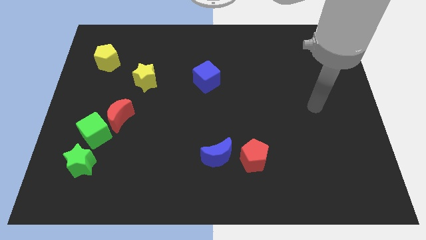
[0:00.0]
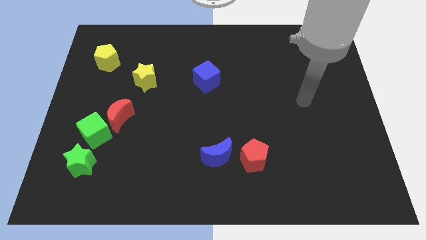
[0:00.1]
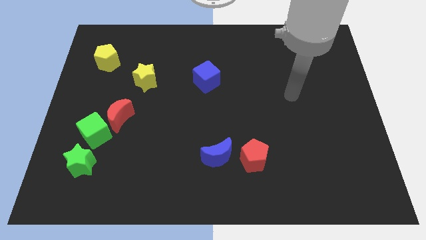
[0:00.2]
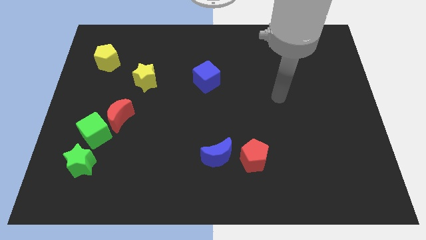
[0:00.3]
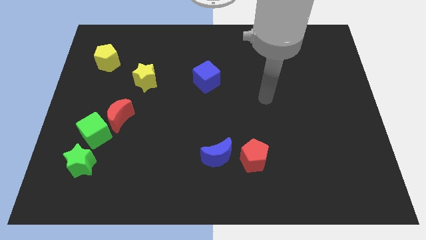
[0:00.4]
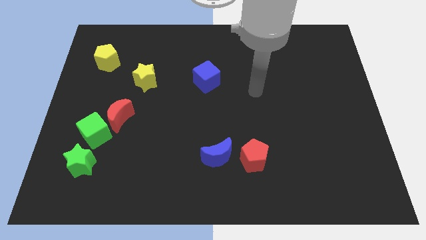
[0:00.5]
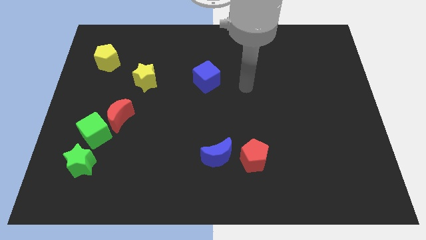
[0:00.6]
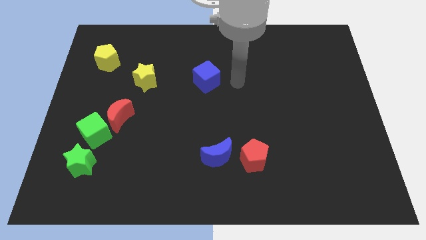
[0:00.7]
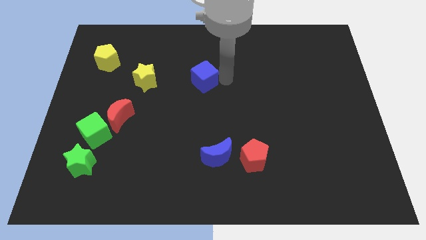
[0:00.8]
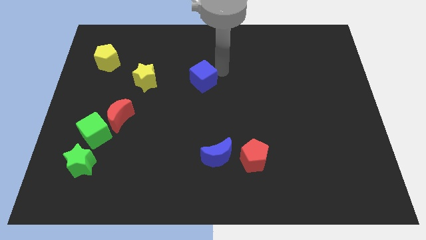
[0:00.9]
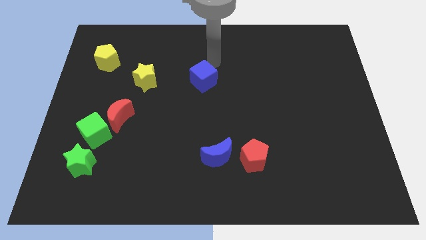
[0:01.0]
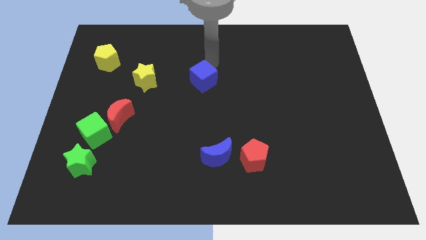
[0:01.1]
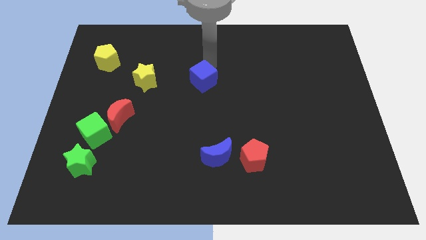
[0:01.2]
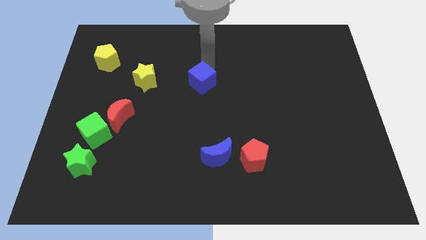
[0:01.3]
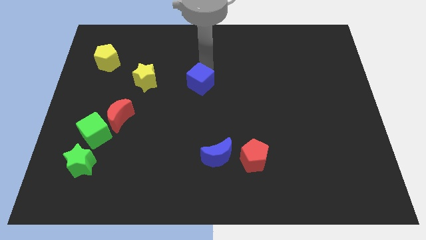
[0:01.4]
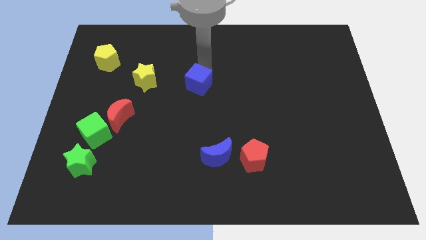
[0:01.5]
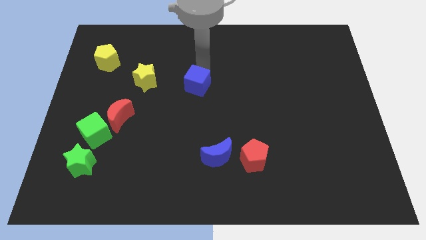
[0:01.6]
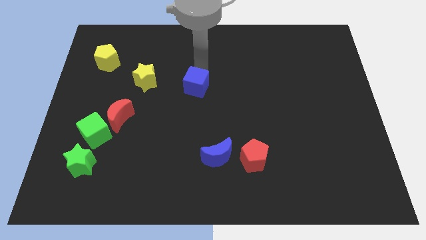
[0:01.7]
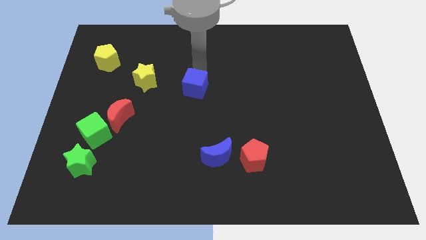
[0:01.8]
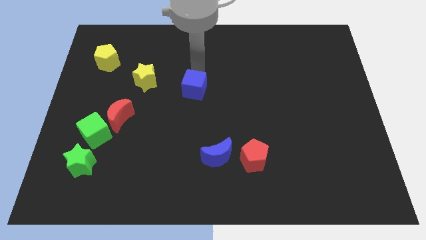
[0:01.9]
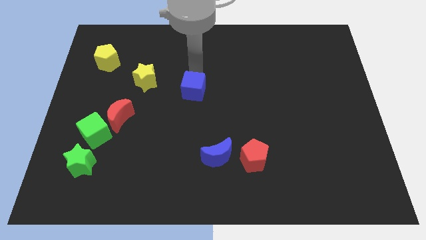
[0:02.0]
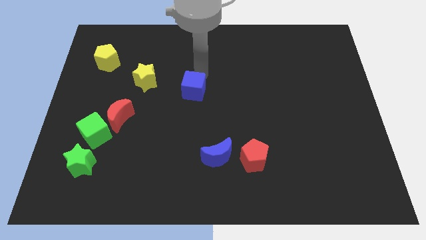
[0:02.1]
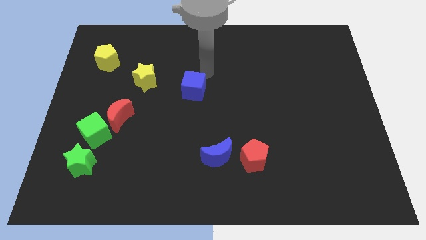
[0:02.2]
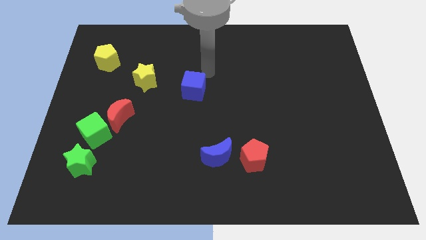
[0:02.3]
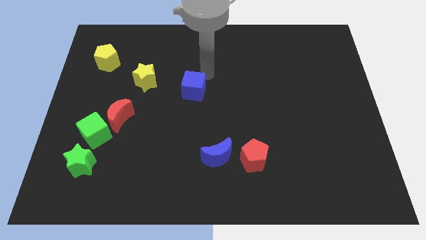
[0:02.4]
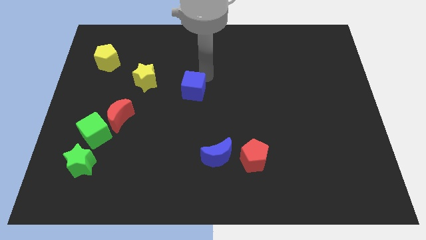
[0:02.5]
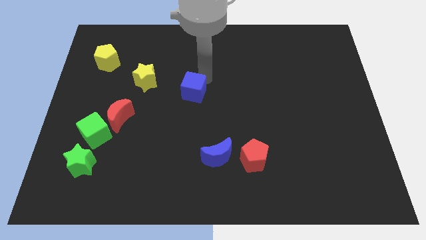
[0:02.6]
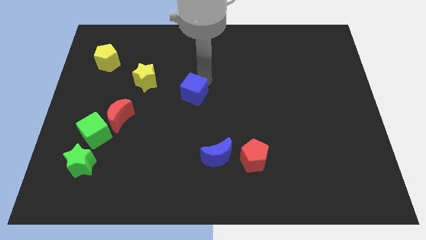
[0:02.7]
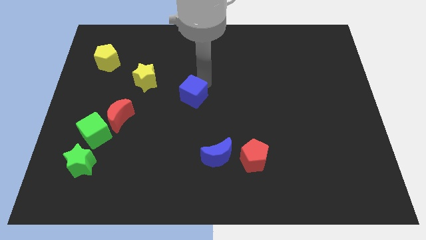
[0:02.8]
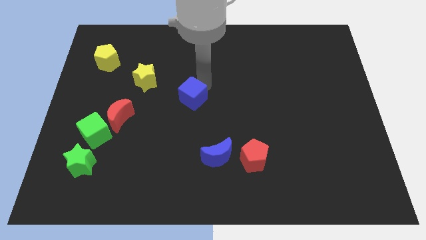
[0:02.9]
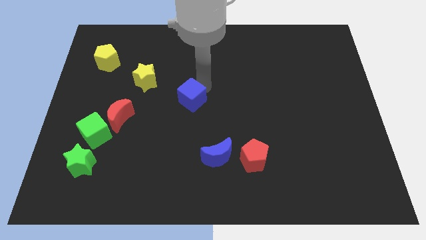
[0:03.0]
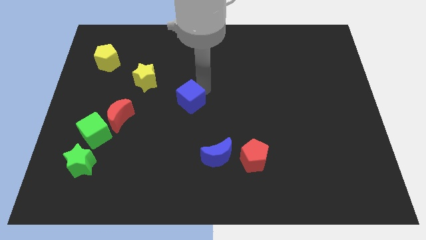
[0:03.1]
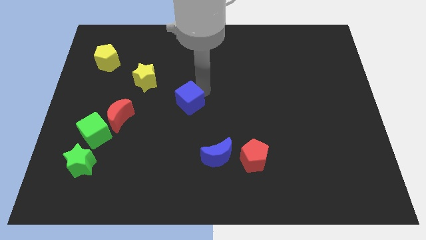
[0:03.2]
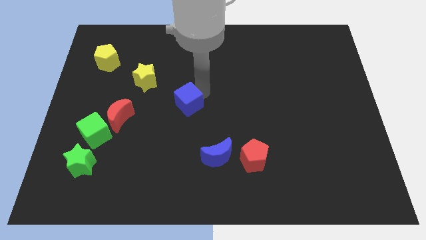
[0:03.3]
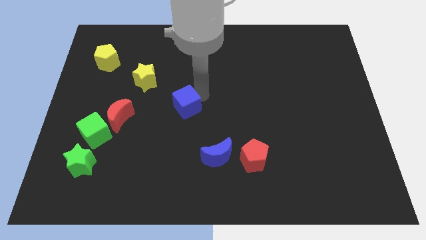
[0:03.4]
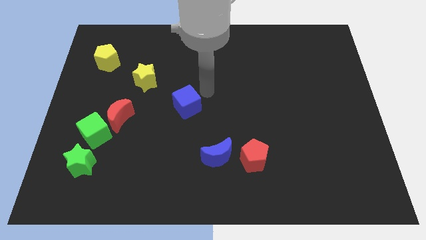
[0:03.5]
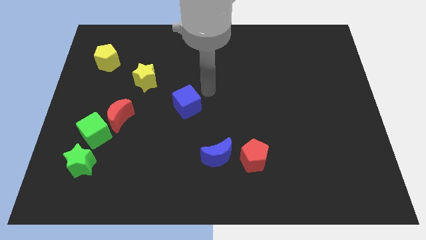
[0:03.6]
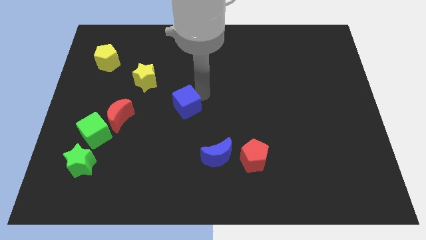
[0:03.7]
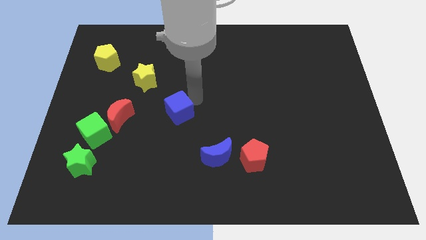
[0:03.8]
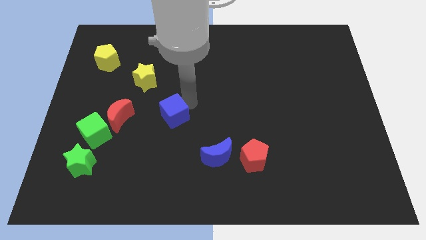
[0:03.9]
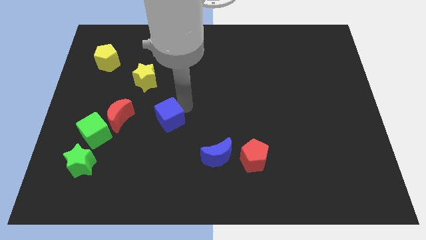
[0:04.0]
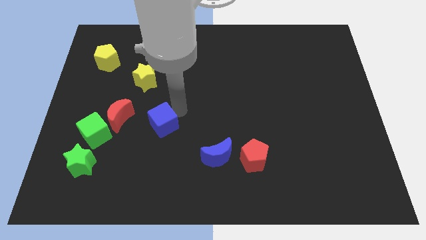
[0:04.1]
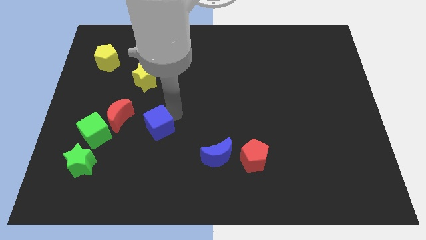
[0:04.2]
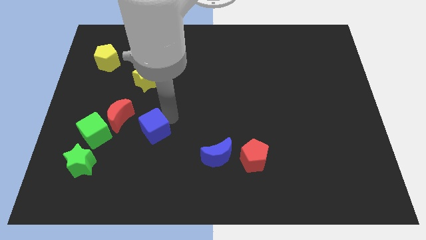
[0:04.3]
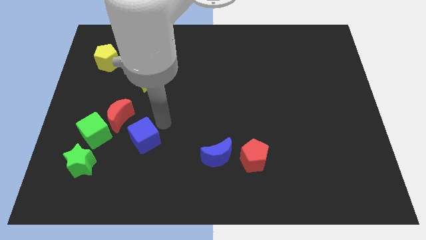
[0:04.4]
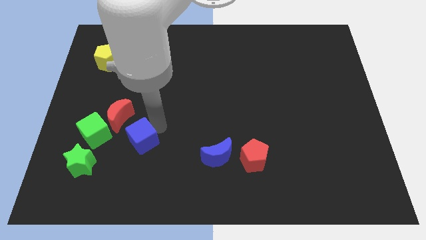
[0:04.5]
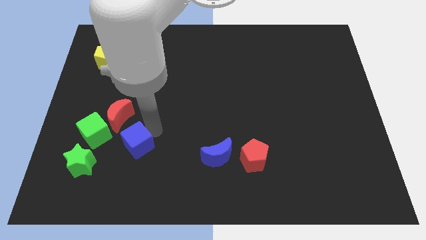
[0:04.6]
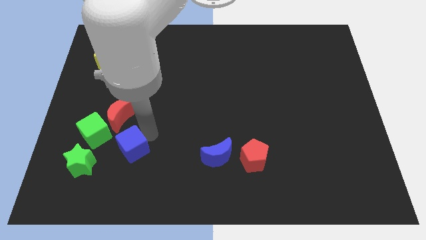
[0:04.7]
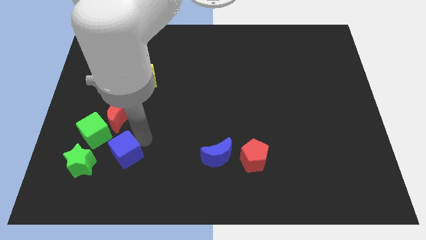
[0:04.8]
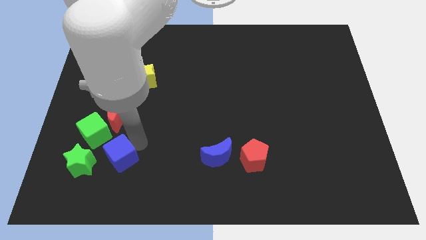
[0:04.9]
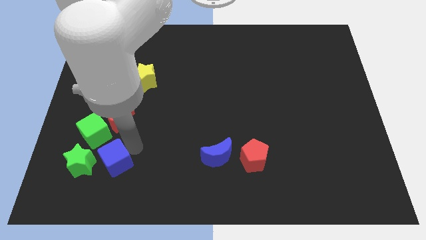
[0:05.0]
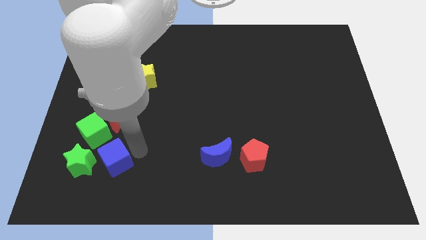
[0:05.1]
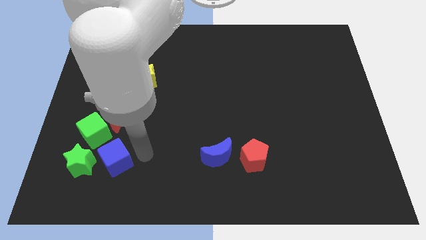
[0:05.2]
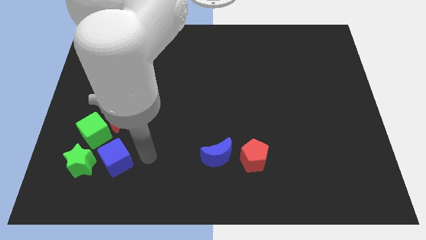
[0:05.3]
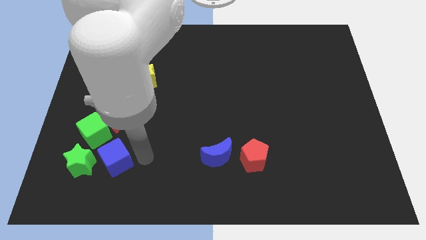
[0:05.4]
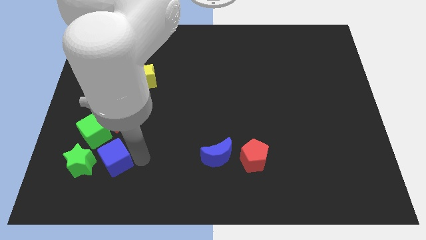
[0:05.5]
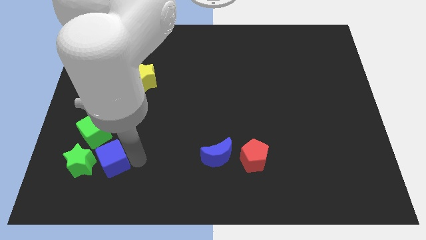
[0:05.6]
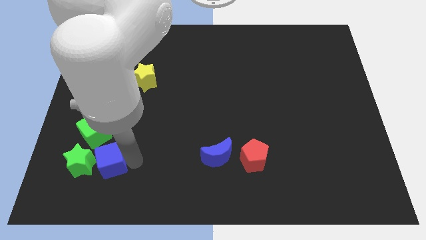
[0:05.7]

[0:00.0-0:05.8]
slide the blue cube close to the green star

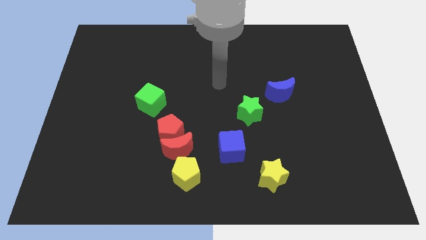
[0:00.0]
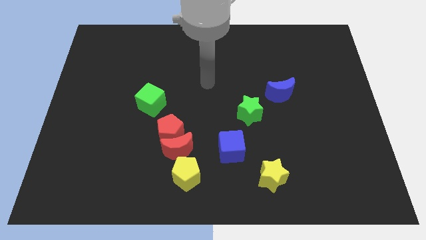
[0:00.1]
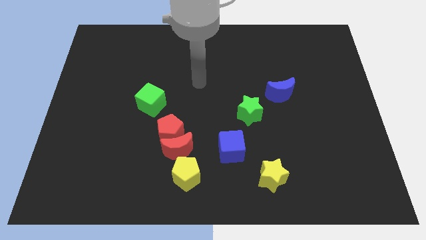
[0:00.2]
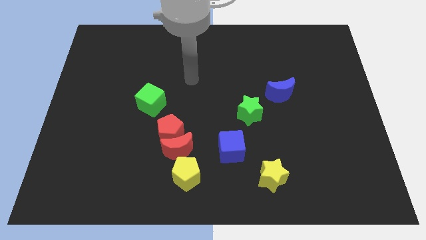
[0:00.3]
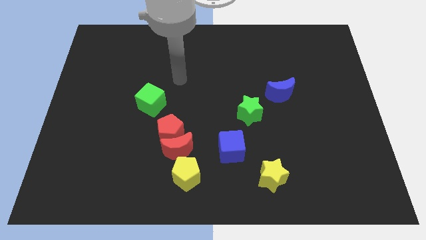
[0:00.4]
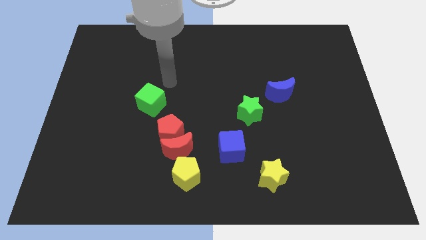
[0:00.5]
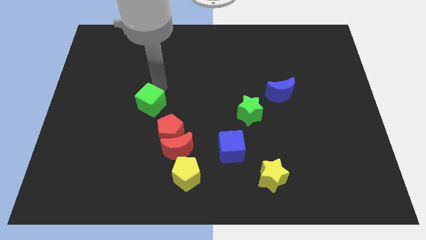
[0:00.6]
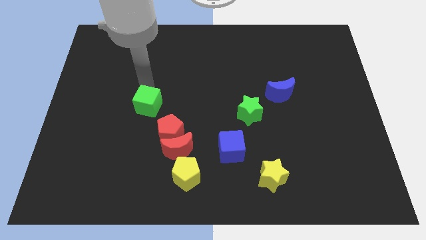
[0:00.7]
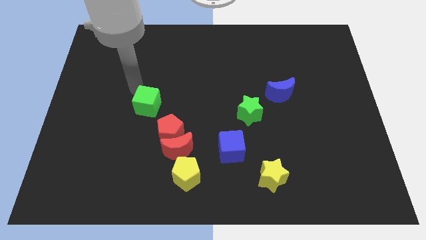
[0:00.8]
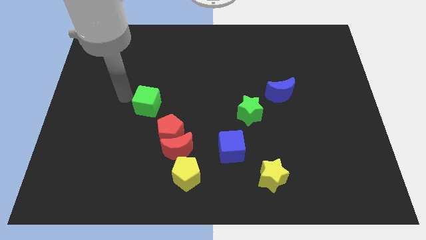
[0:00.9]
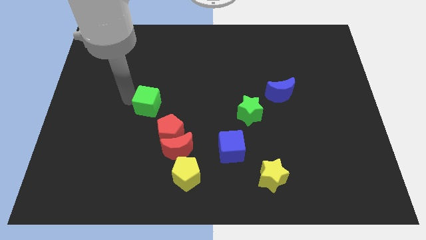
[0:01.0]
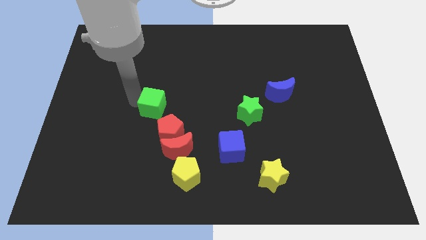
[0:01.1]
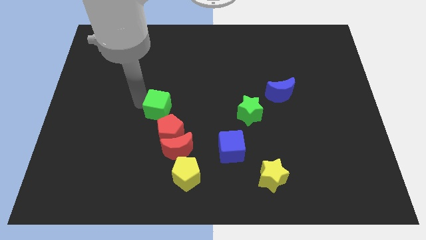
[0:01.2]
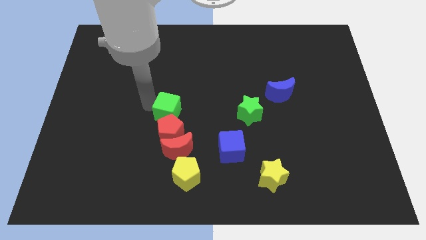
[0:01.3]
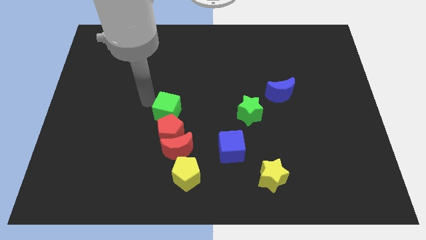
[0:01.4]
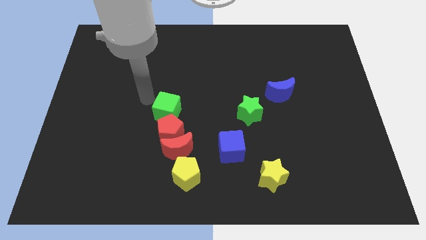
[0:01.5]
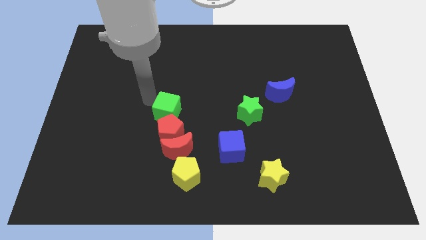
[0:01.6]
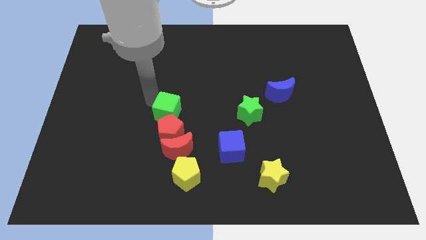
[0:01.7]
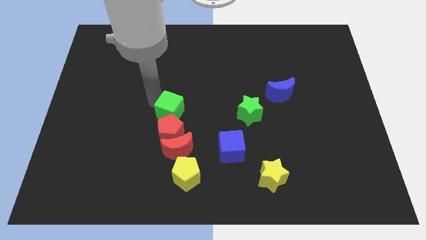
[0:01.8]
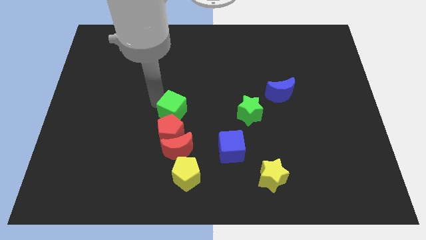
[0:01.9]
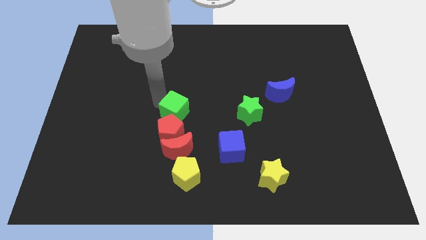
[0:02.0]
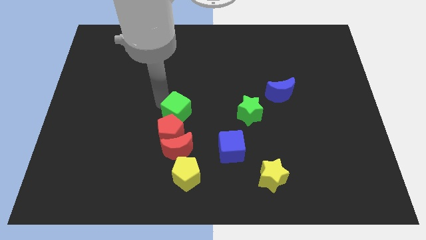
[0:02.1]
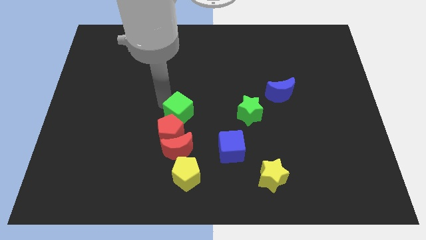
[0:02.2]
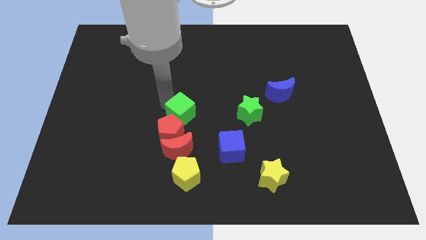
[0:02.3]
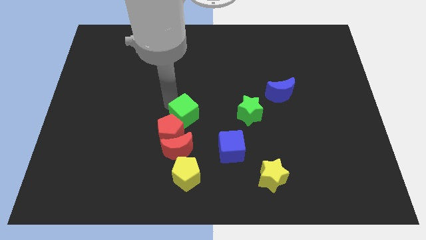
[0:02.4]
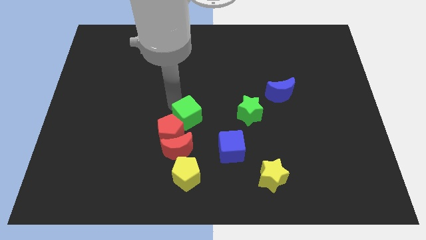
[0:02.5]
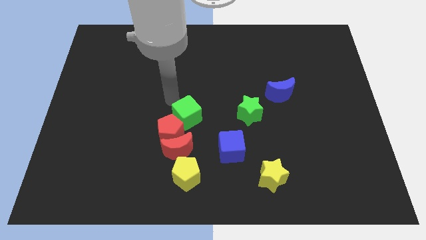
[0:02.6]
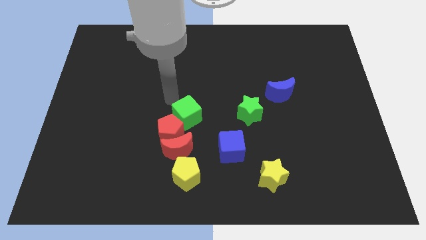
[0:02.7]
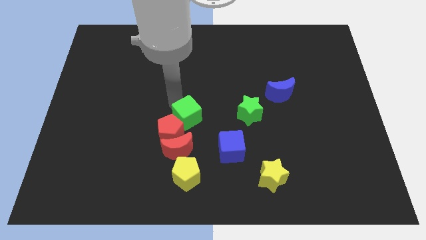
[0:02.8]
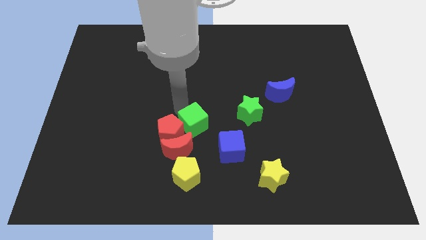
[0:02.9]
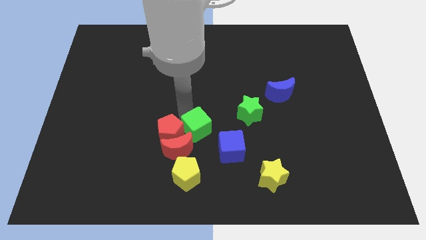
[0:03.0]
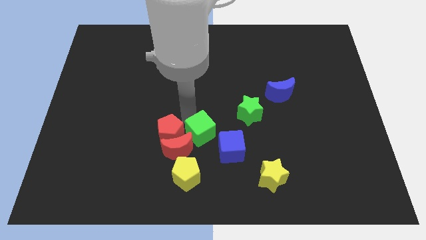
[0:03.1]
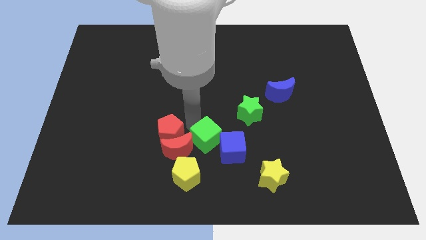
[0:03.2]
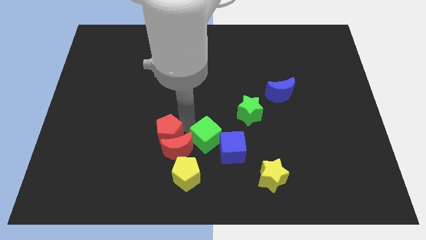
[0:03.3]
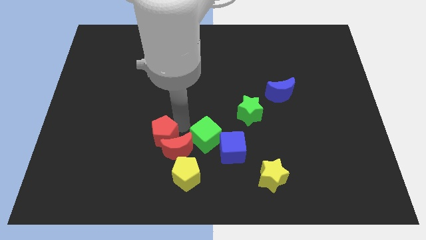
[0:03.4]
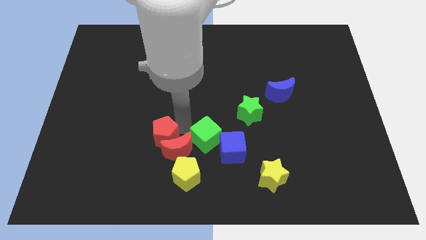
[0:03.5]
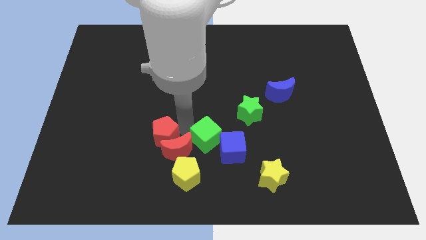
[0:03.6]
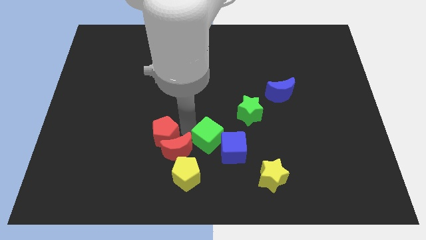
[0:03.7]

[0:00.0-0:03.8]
put the green cube close to the blue cube
